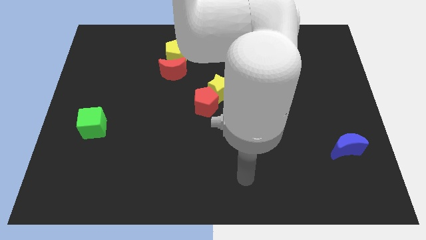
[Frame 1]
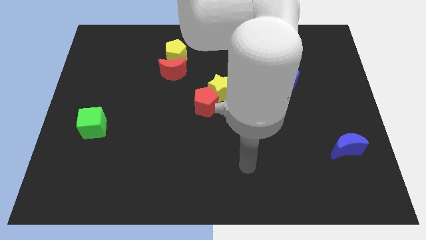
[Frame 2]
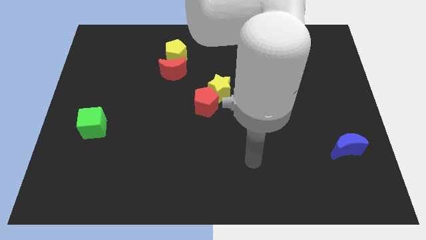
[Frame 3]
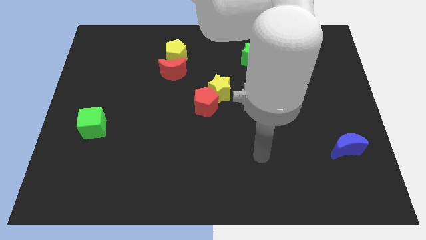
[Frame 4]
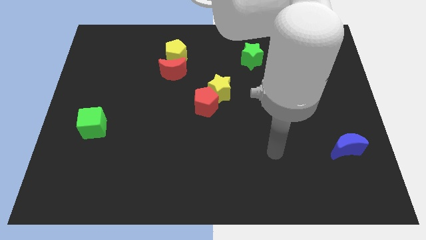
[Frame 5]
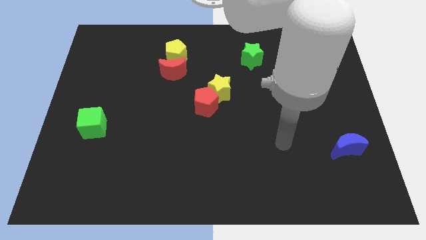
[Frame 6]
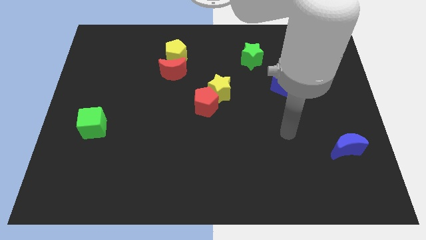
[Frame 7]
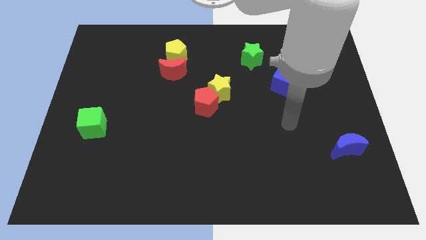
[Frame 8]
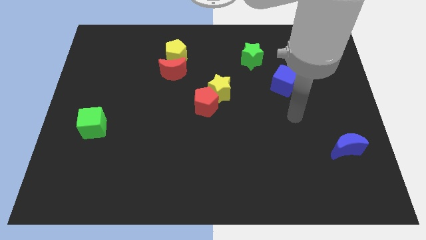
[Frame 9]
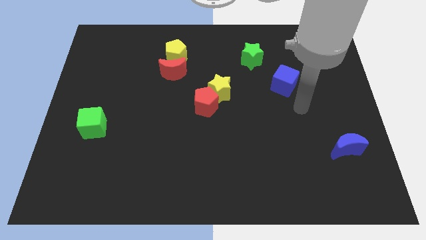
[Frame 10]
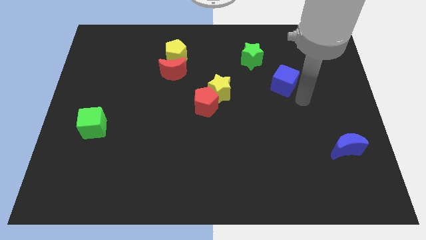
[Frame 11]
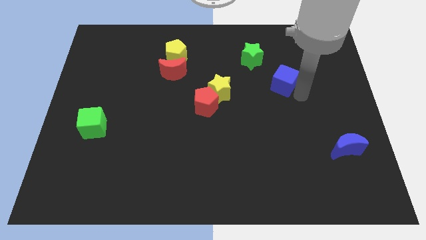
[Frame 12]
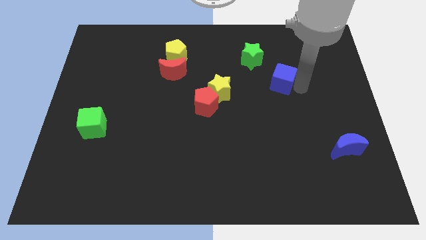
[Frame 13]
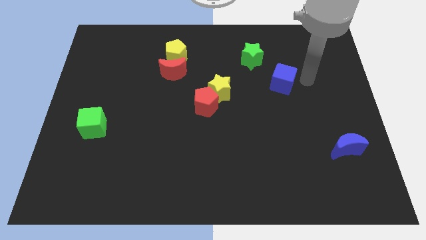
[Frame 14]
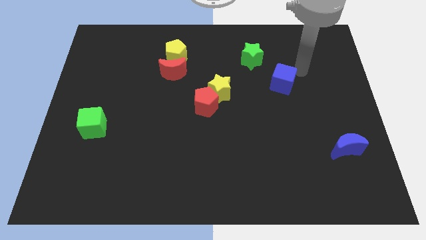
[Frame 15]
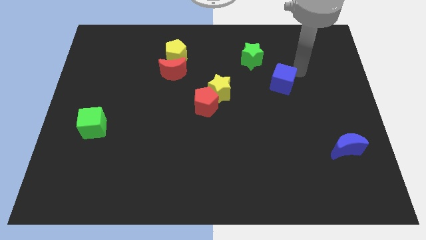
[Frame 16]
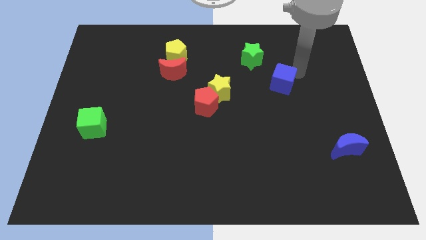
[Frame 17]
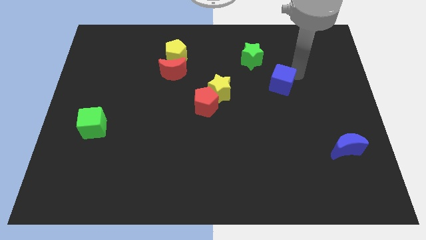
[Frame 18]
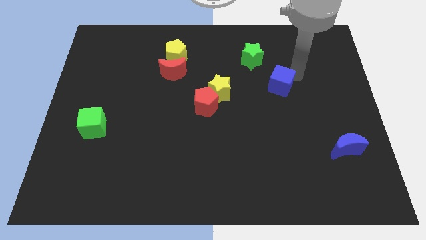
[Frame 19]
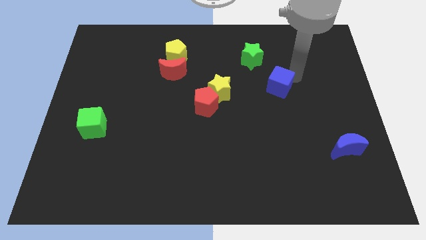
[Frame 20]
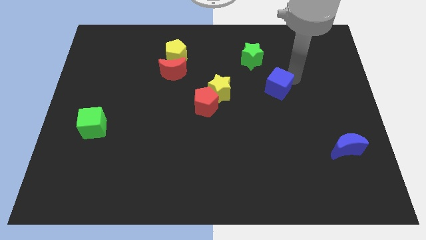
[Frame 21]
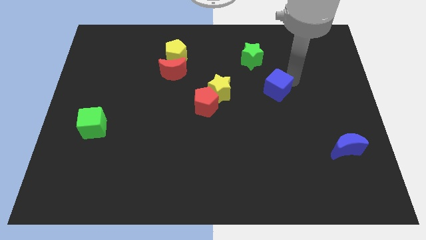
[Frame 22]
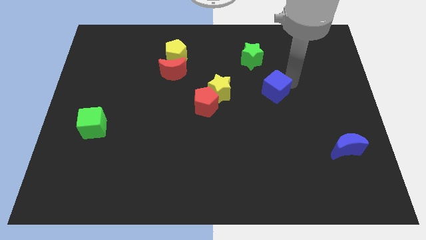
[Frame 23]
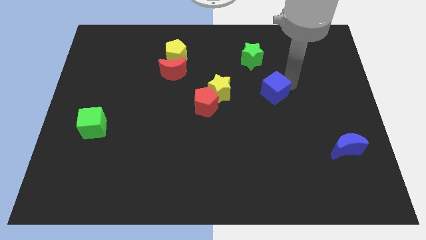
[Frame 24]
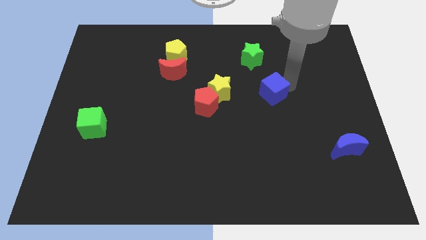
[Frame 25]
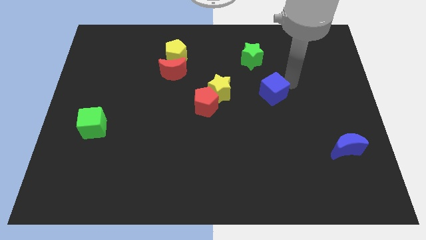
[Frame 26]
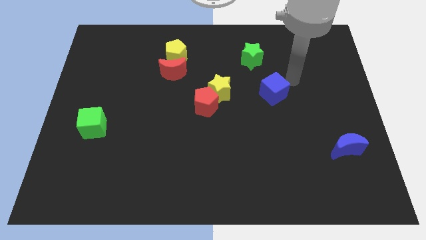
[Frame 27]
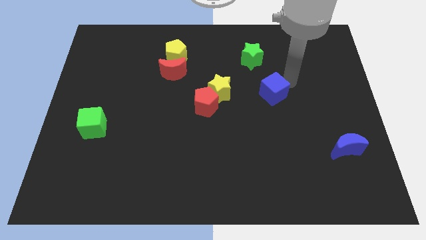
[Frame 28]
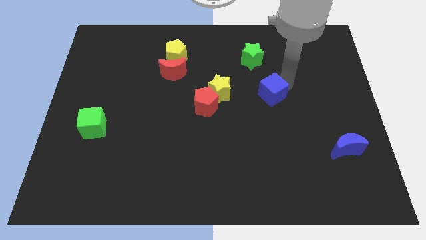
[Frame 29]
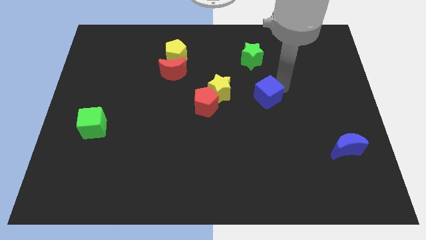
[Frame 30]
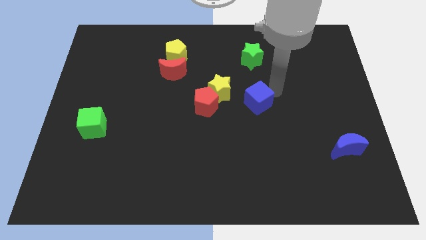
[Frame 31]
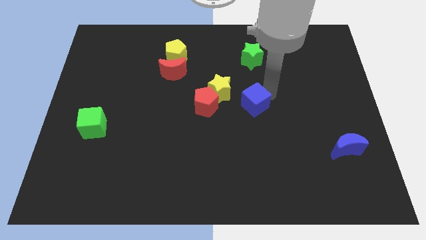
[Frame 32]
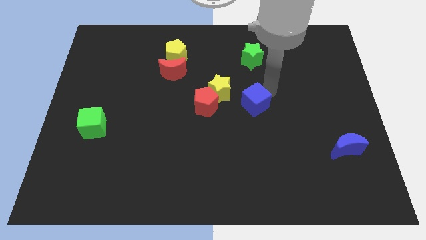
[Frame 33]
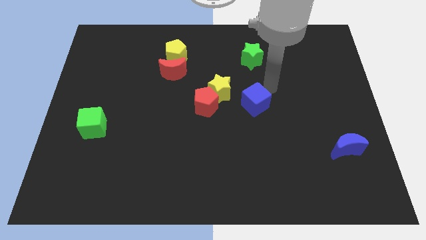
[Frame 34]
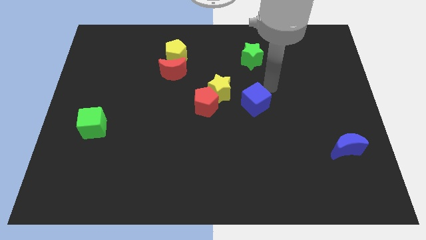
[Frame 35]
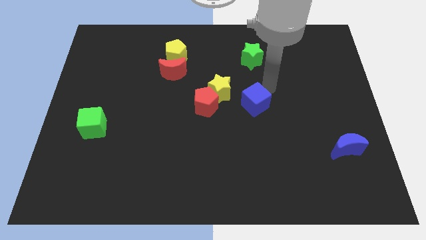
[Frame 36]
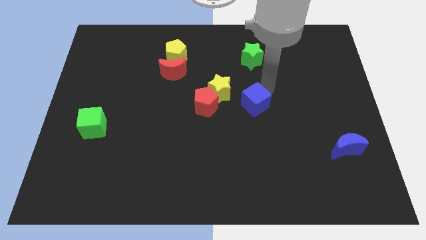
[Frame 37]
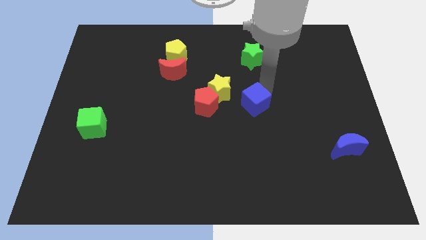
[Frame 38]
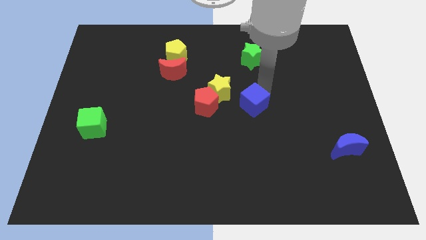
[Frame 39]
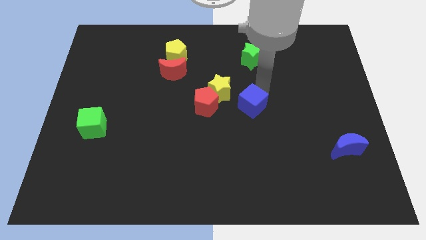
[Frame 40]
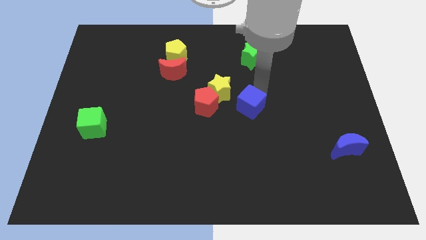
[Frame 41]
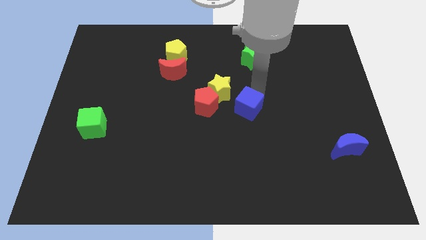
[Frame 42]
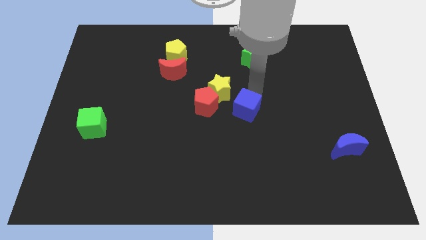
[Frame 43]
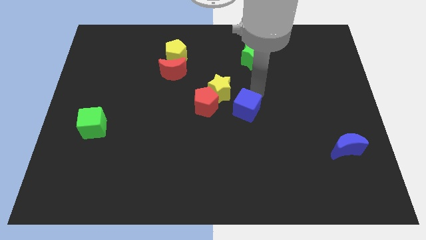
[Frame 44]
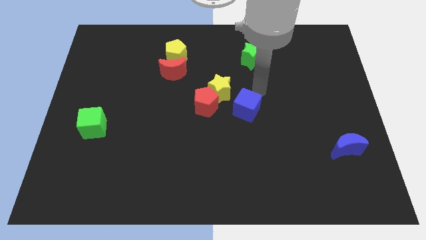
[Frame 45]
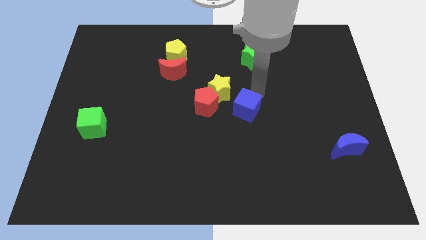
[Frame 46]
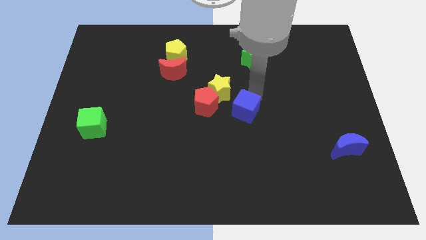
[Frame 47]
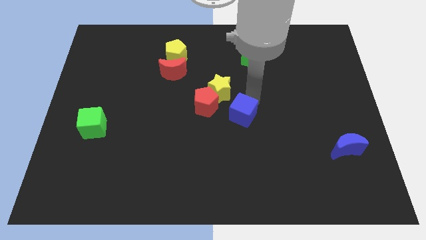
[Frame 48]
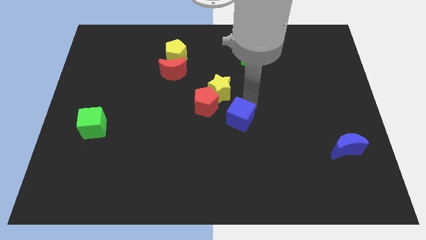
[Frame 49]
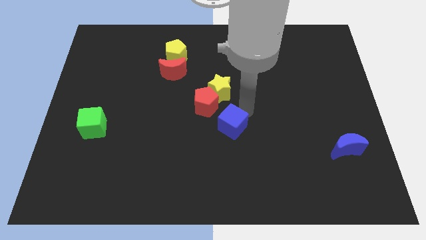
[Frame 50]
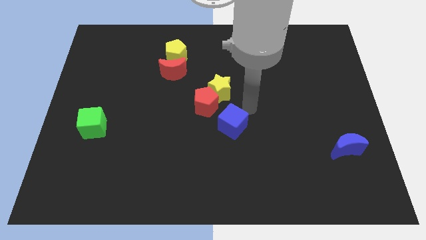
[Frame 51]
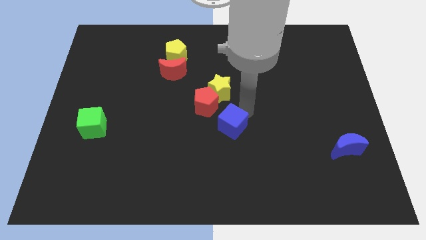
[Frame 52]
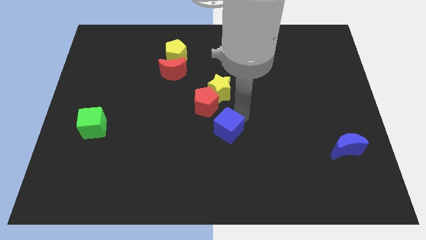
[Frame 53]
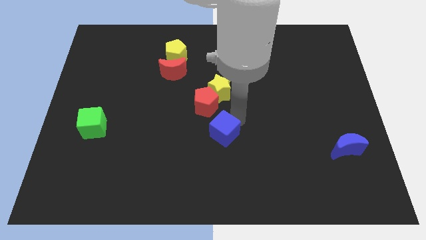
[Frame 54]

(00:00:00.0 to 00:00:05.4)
move the blue cube down and then left

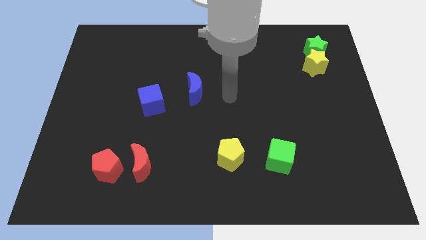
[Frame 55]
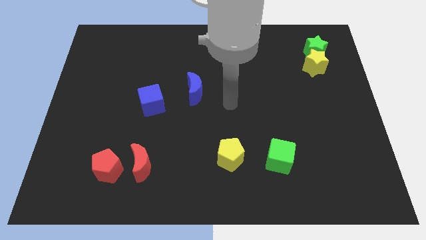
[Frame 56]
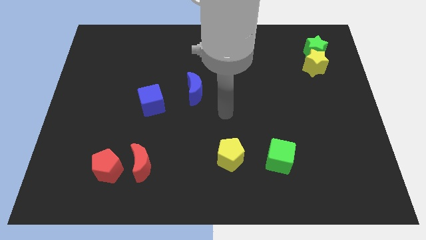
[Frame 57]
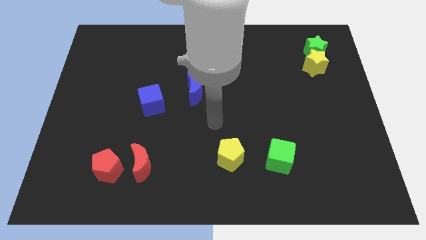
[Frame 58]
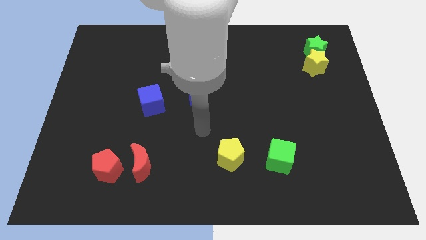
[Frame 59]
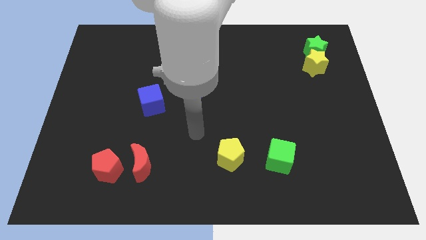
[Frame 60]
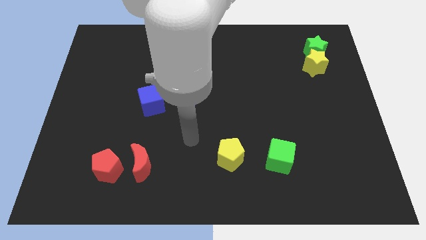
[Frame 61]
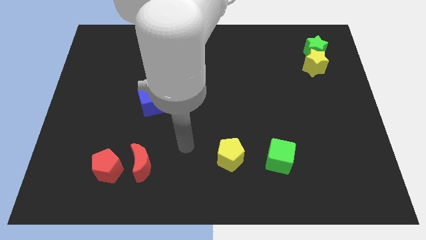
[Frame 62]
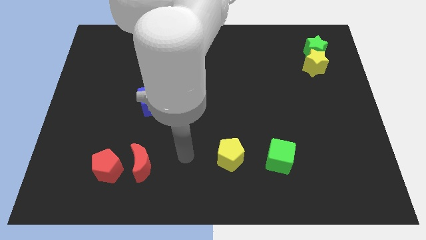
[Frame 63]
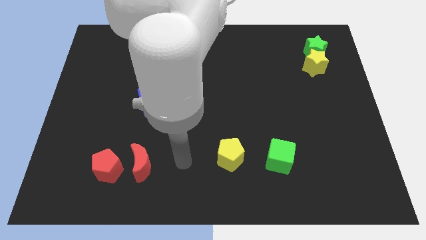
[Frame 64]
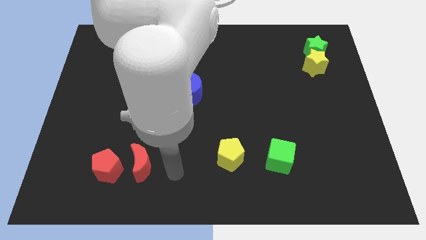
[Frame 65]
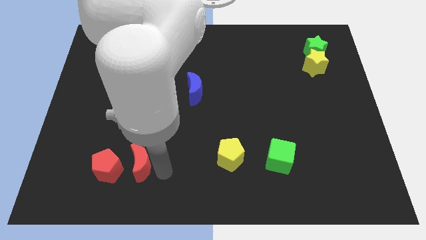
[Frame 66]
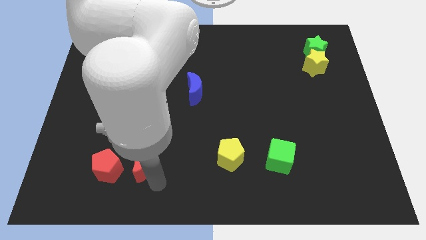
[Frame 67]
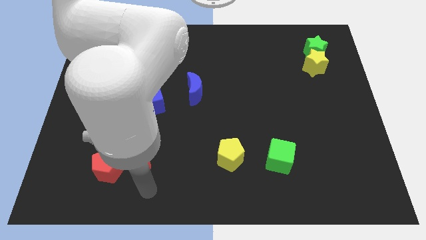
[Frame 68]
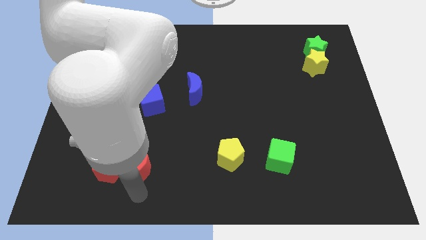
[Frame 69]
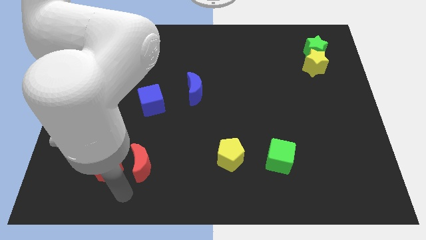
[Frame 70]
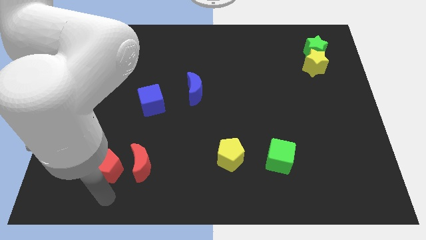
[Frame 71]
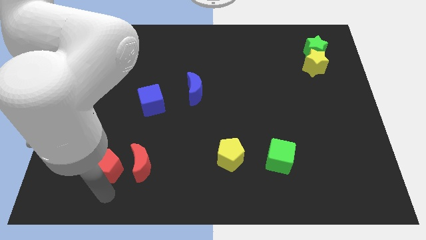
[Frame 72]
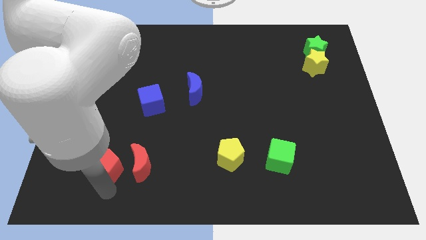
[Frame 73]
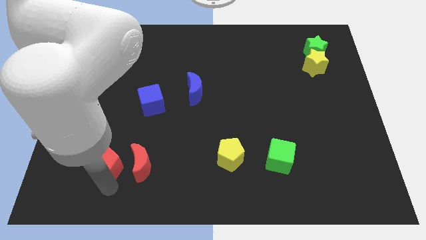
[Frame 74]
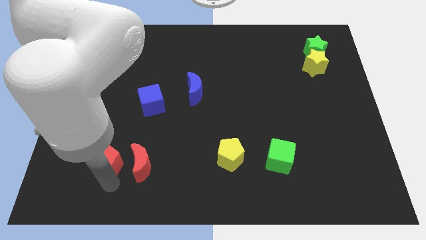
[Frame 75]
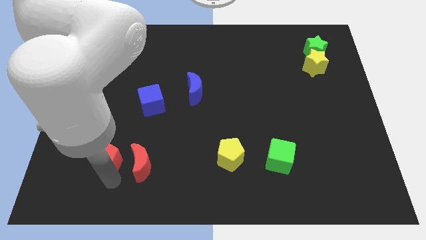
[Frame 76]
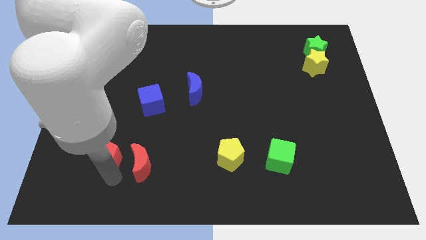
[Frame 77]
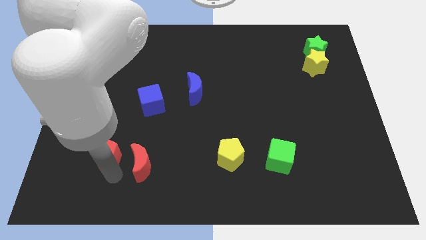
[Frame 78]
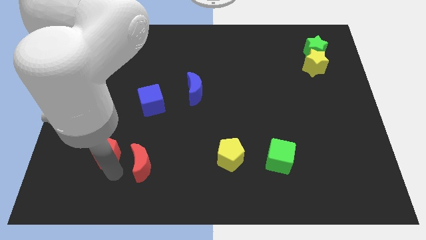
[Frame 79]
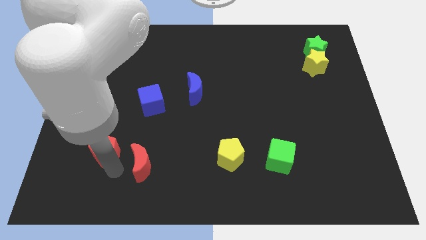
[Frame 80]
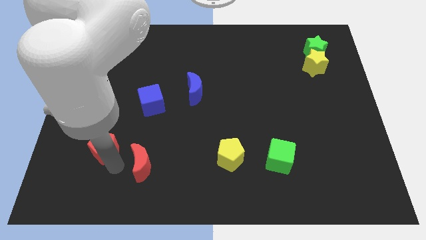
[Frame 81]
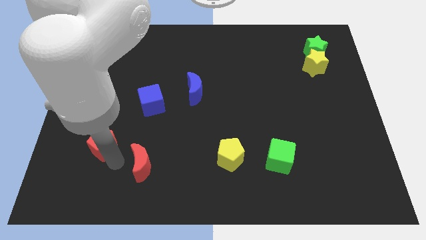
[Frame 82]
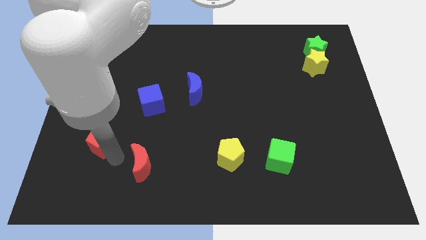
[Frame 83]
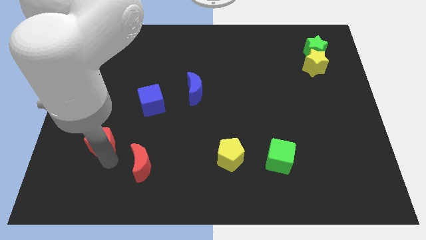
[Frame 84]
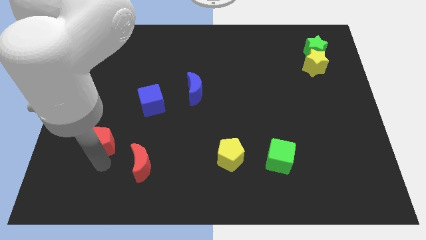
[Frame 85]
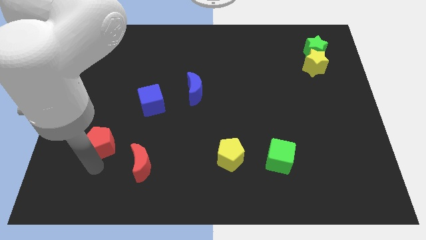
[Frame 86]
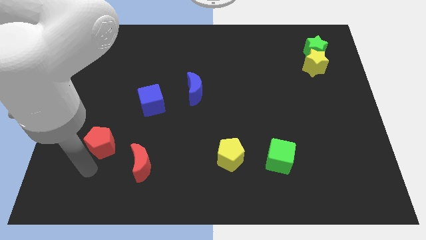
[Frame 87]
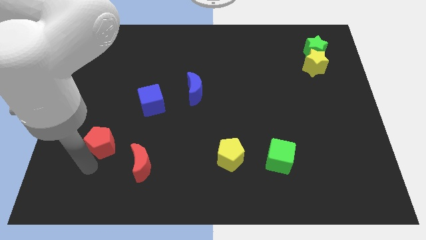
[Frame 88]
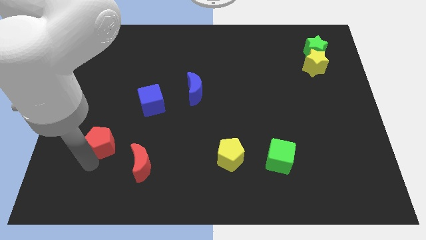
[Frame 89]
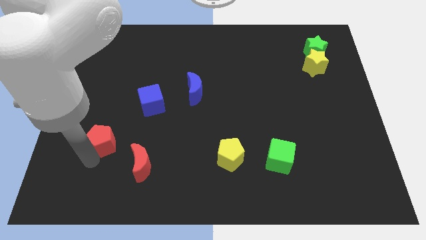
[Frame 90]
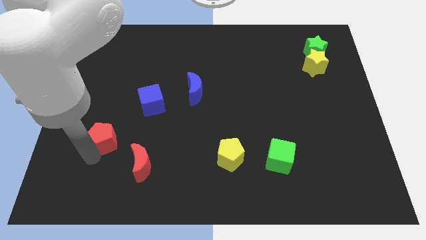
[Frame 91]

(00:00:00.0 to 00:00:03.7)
move the red pentagon up a little
